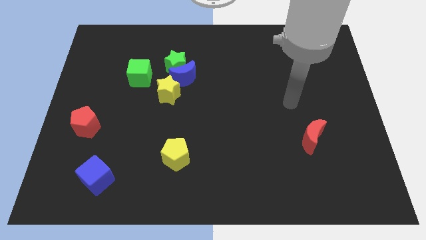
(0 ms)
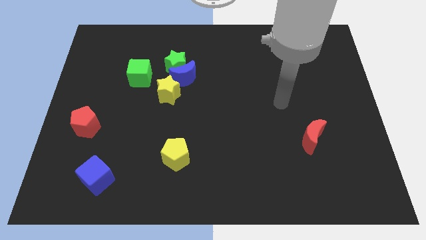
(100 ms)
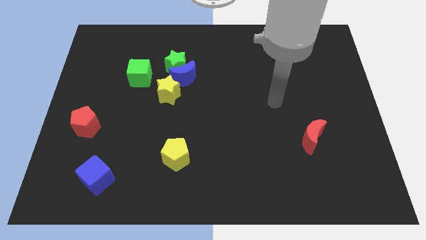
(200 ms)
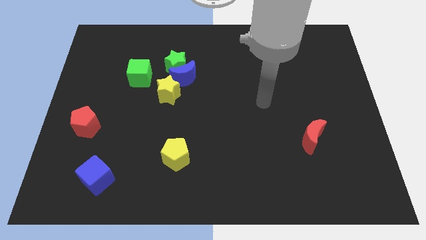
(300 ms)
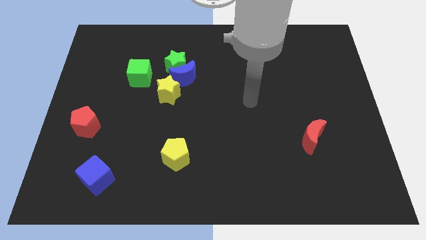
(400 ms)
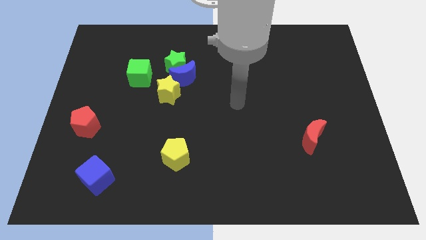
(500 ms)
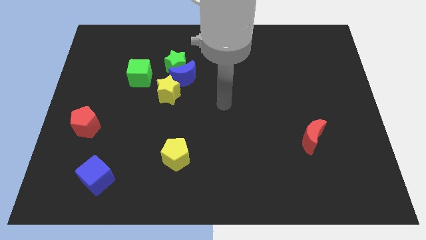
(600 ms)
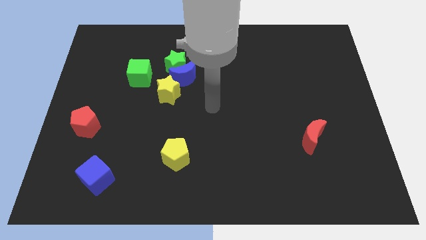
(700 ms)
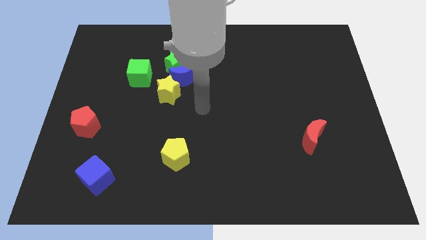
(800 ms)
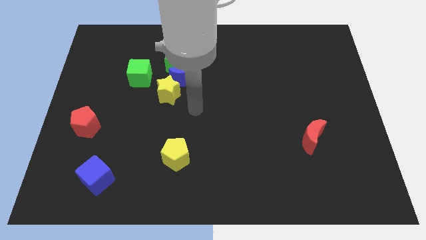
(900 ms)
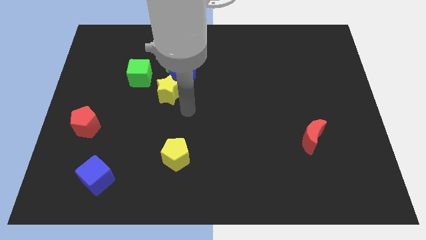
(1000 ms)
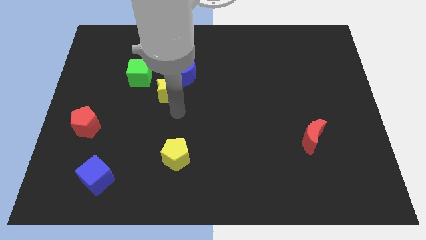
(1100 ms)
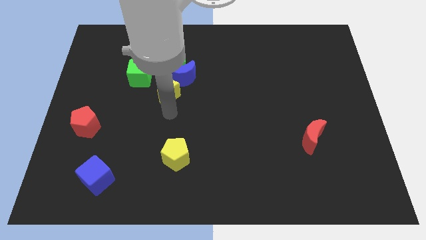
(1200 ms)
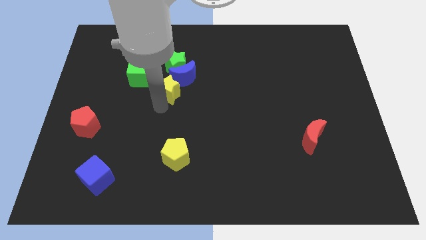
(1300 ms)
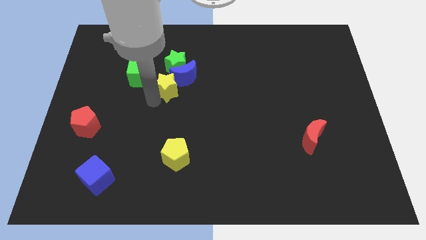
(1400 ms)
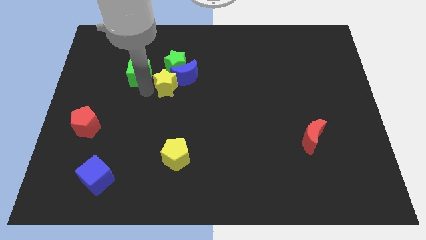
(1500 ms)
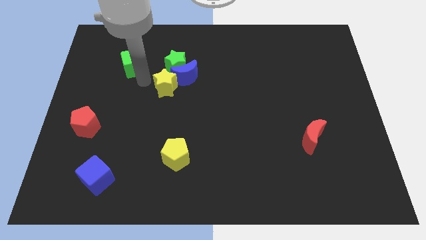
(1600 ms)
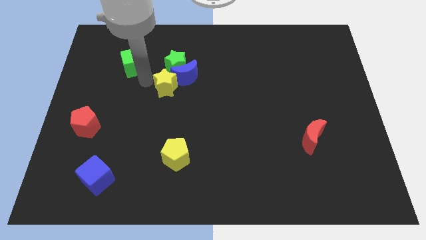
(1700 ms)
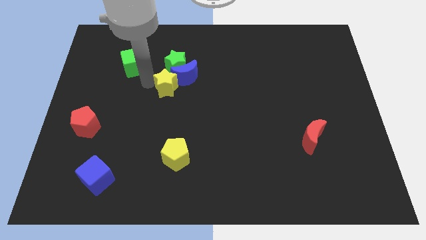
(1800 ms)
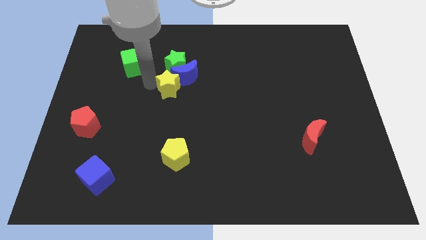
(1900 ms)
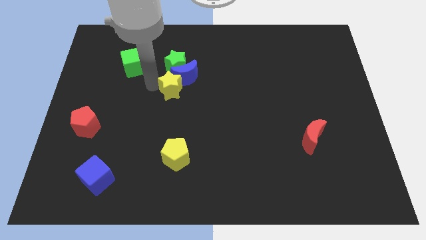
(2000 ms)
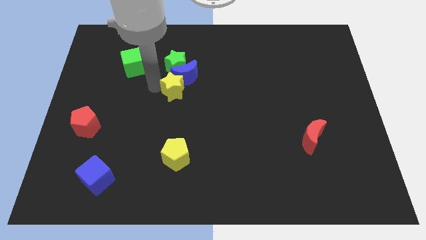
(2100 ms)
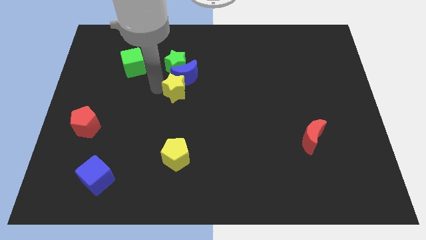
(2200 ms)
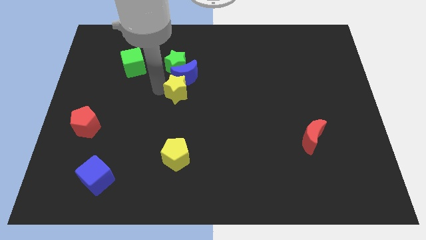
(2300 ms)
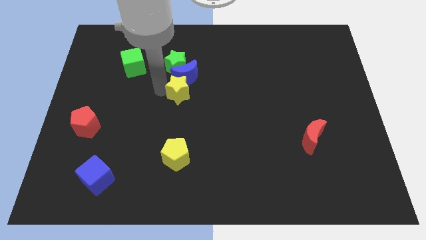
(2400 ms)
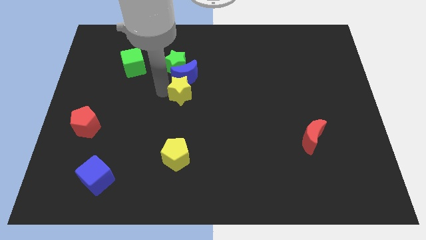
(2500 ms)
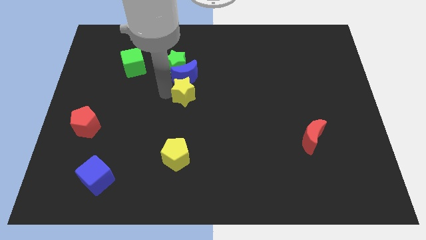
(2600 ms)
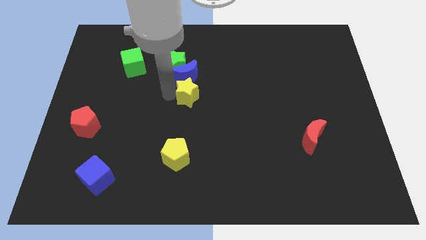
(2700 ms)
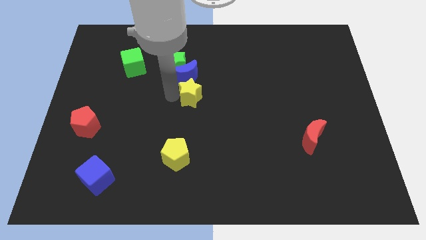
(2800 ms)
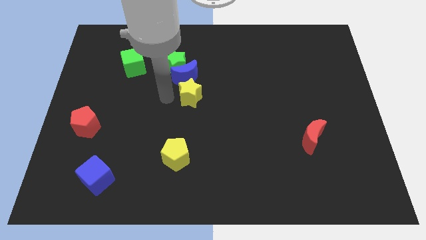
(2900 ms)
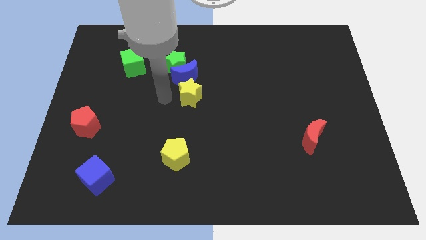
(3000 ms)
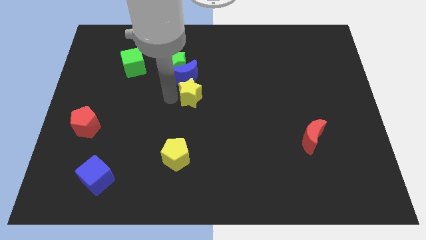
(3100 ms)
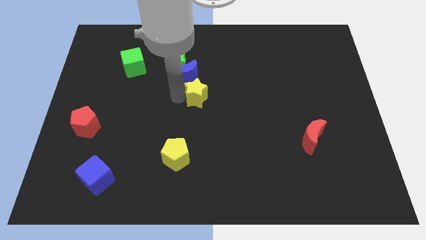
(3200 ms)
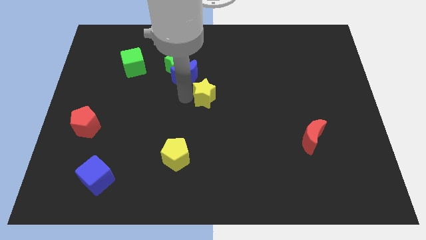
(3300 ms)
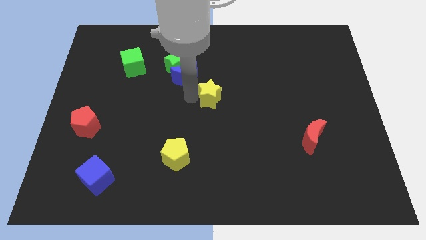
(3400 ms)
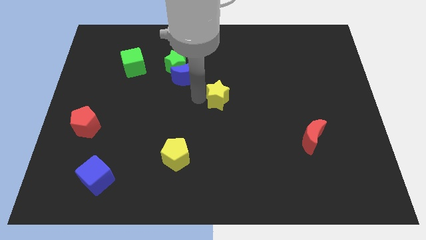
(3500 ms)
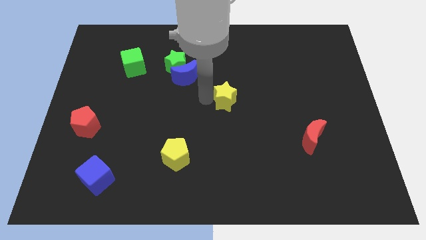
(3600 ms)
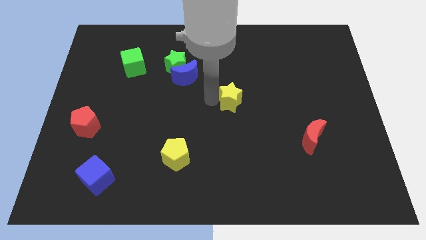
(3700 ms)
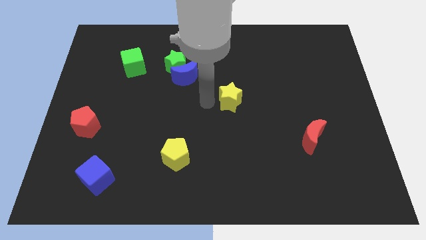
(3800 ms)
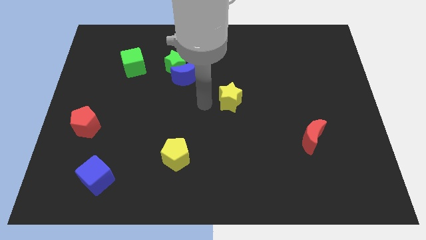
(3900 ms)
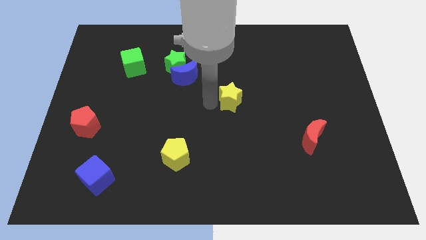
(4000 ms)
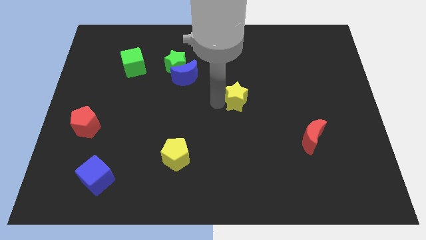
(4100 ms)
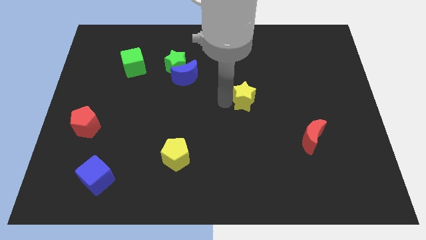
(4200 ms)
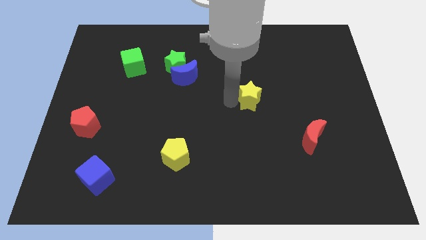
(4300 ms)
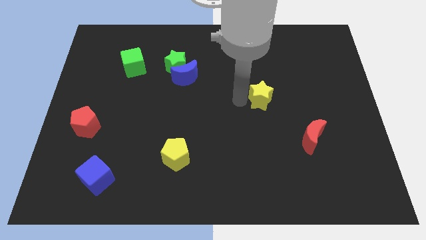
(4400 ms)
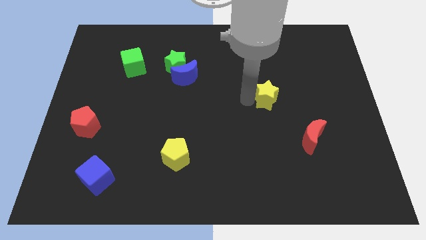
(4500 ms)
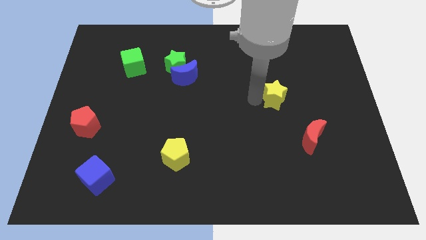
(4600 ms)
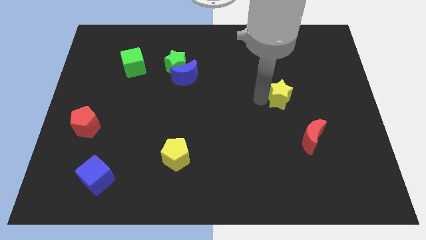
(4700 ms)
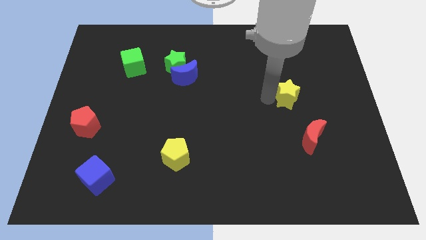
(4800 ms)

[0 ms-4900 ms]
slide the yellow star to the top side of the red moon

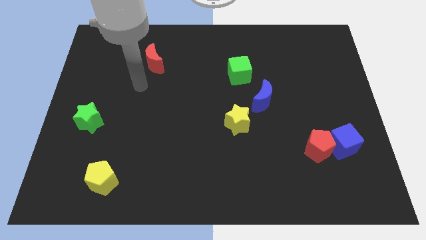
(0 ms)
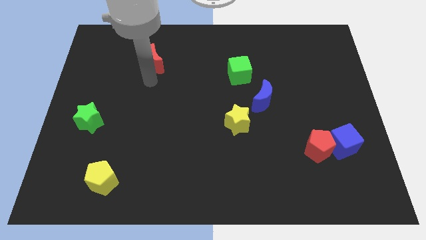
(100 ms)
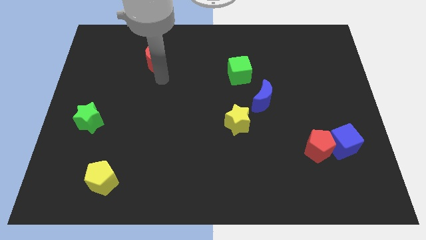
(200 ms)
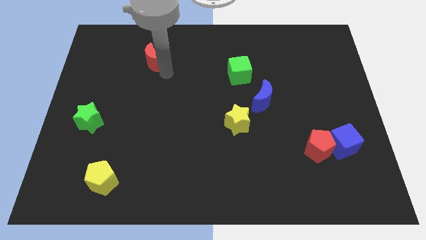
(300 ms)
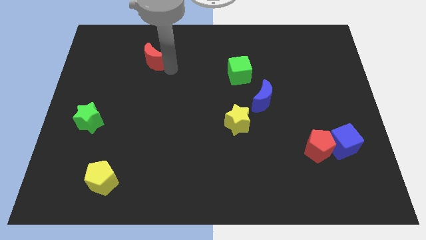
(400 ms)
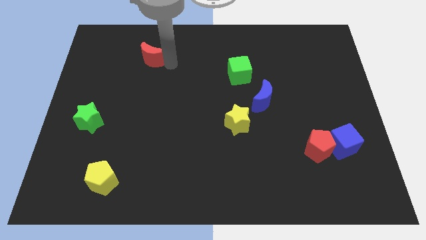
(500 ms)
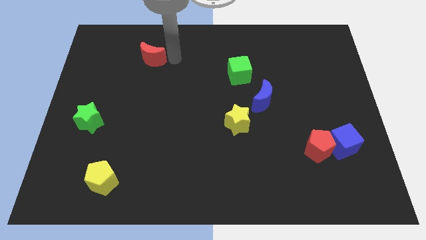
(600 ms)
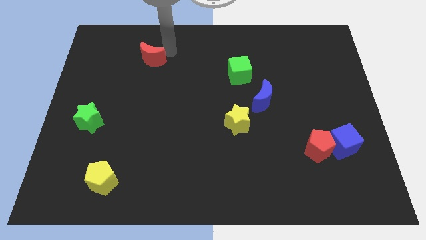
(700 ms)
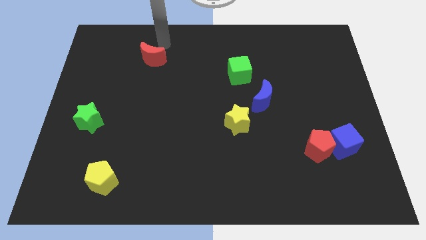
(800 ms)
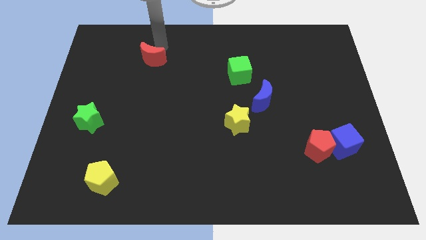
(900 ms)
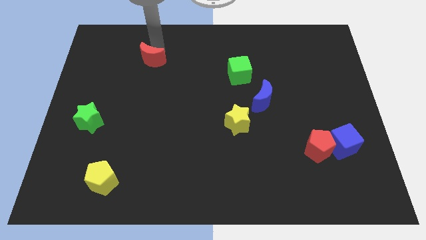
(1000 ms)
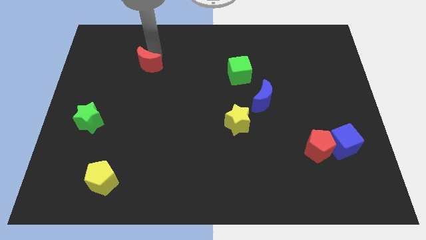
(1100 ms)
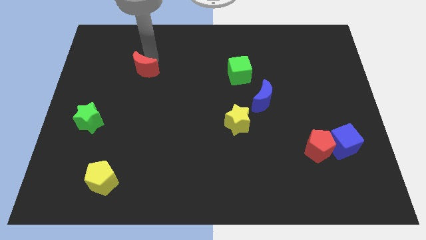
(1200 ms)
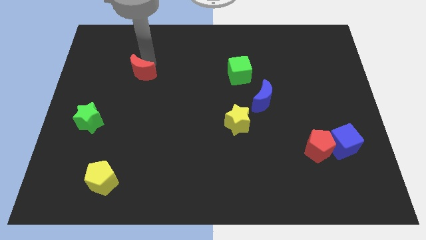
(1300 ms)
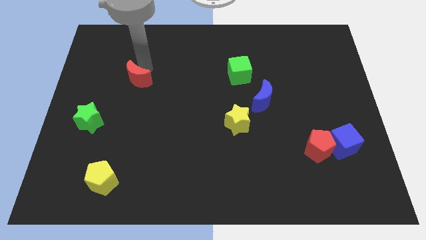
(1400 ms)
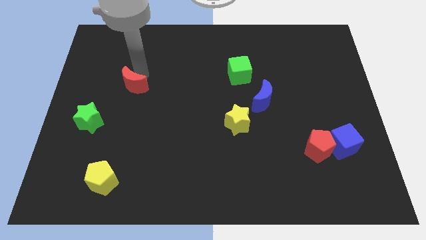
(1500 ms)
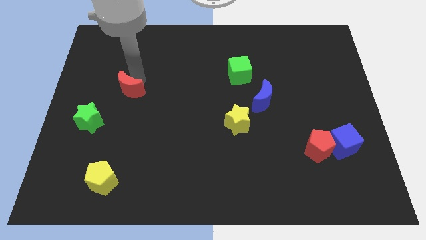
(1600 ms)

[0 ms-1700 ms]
slide the red moon diagonally up and to the right of the green star
